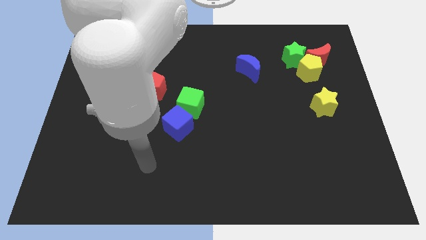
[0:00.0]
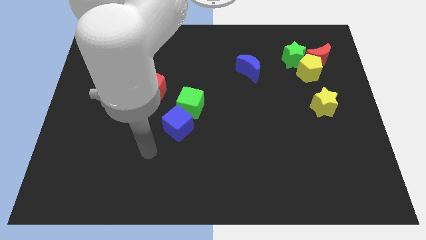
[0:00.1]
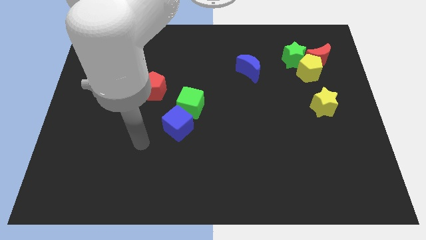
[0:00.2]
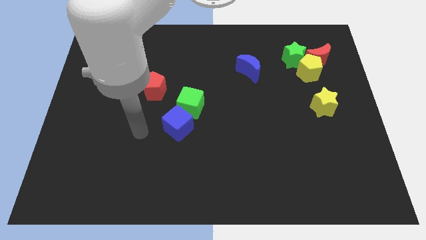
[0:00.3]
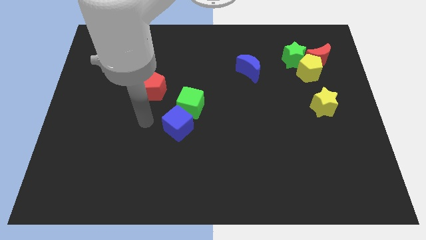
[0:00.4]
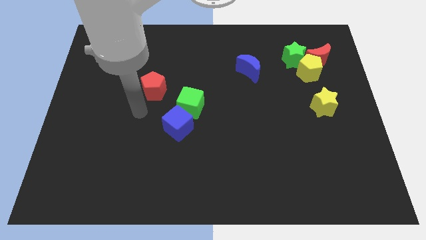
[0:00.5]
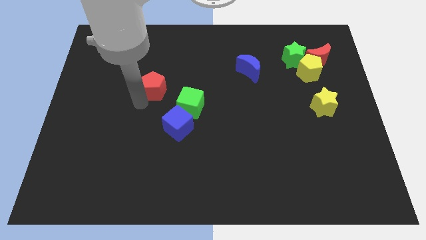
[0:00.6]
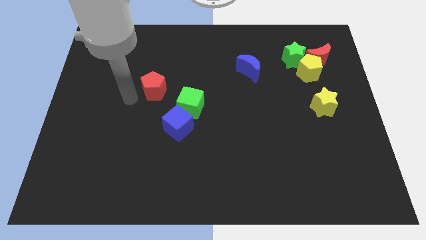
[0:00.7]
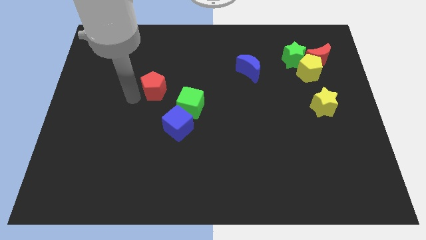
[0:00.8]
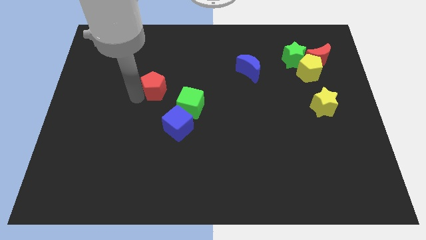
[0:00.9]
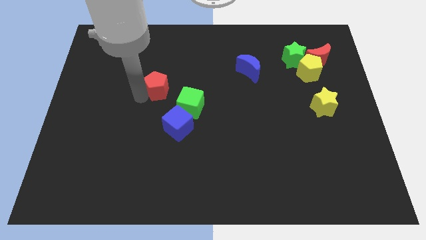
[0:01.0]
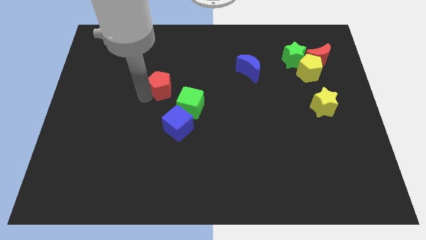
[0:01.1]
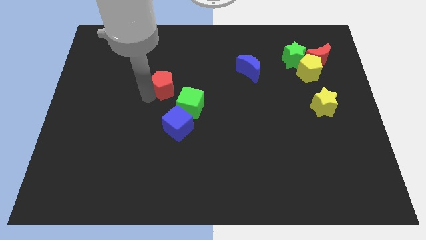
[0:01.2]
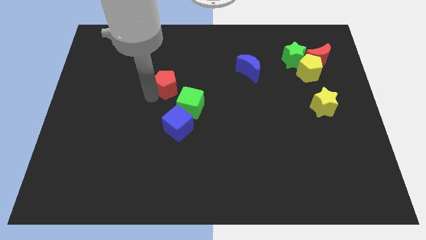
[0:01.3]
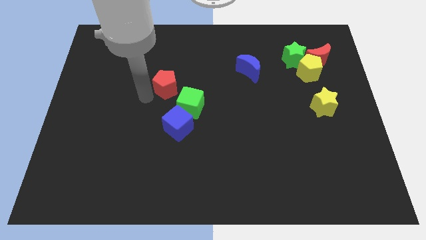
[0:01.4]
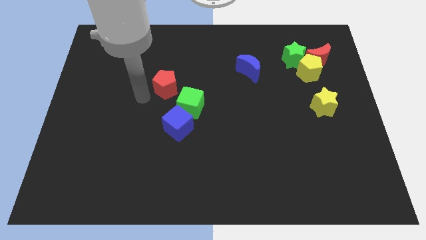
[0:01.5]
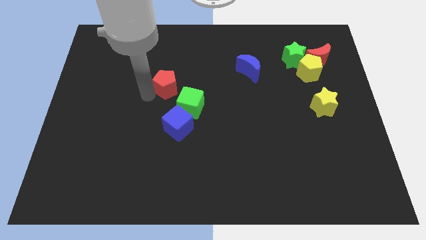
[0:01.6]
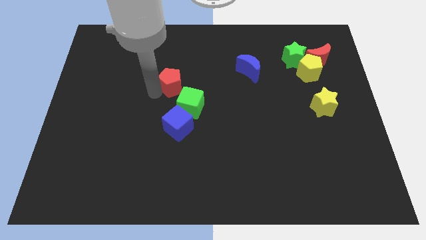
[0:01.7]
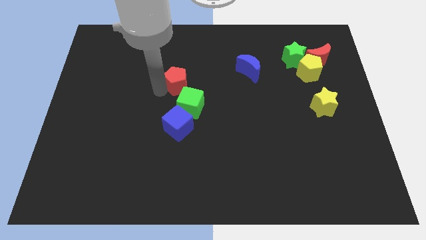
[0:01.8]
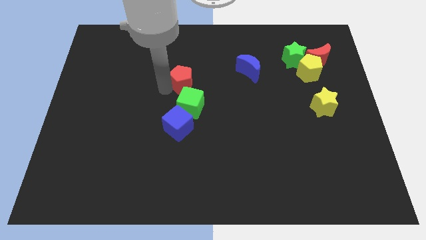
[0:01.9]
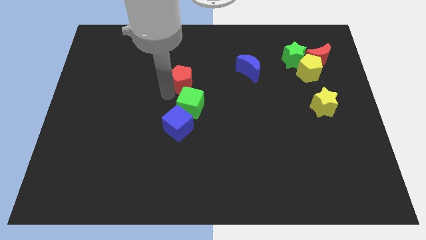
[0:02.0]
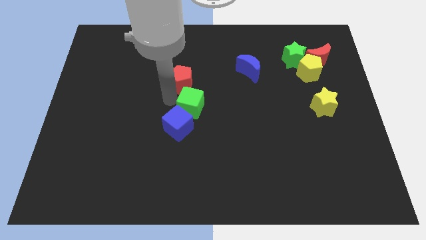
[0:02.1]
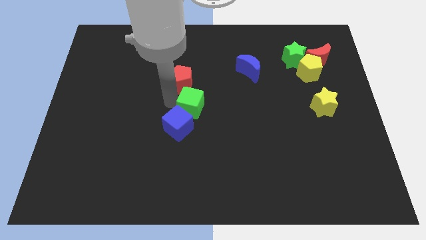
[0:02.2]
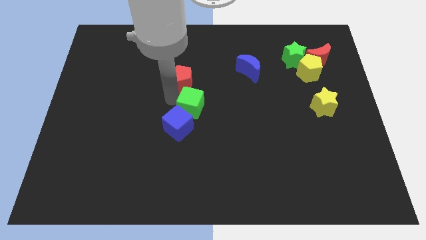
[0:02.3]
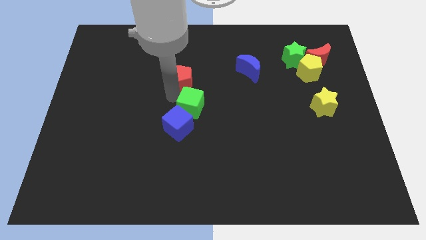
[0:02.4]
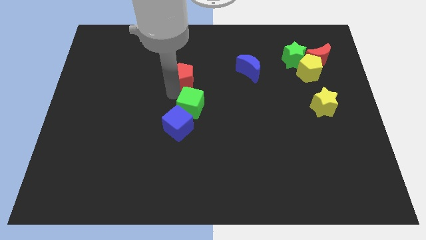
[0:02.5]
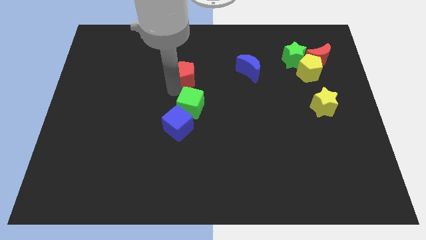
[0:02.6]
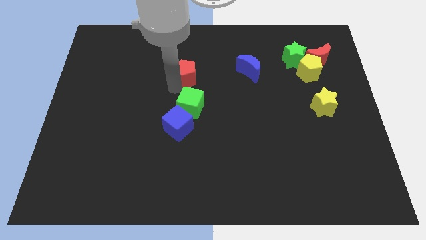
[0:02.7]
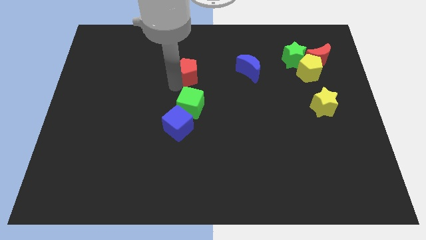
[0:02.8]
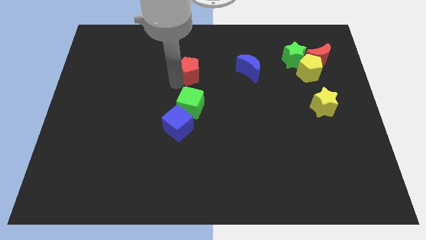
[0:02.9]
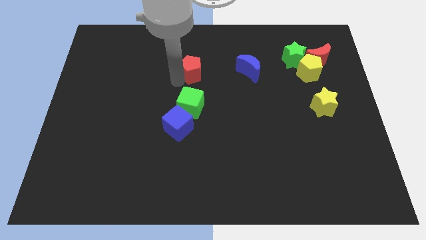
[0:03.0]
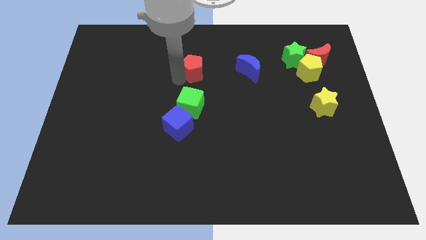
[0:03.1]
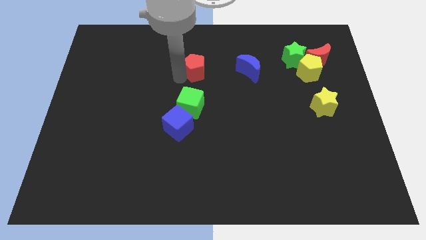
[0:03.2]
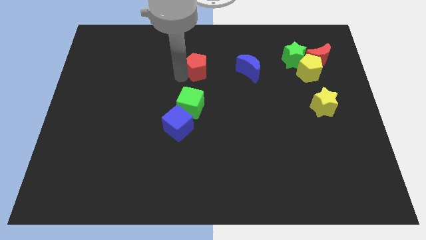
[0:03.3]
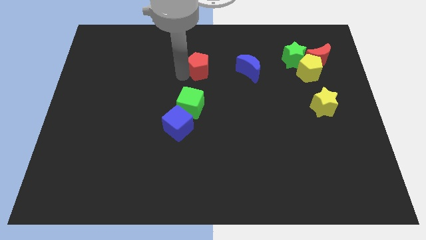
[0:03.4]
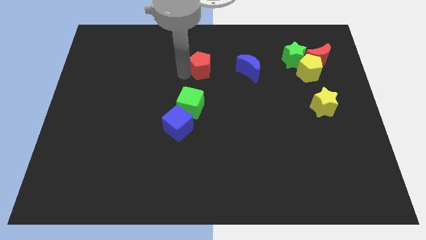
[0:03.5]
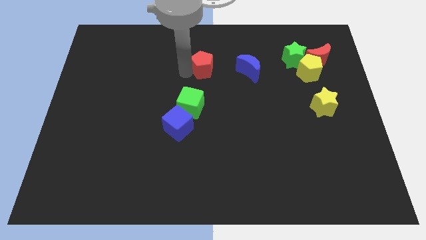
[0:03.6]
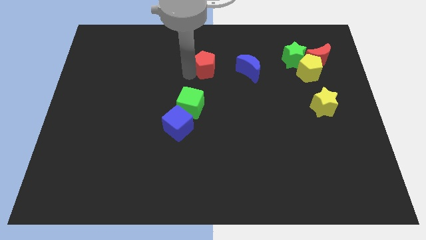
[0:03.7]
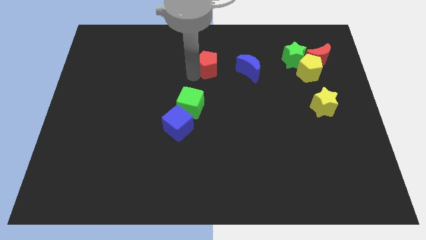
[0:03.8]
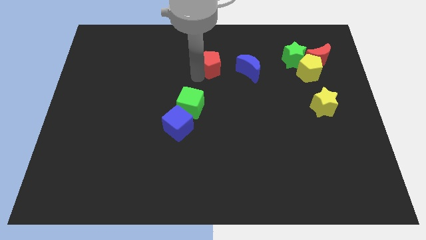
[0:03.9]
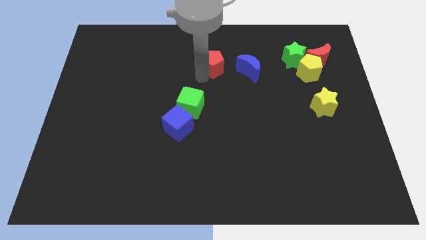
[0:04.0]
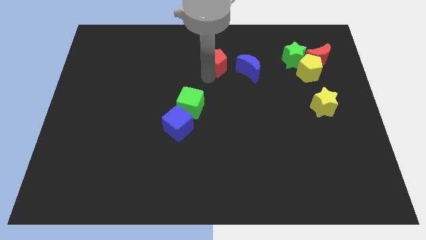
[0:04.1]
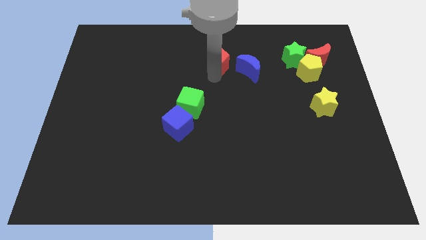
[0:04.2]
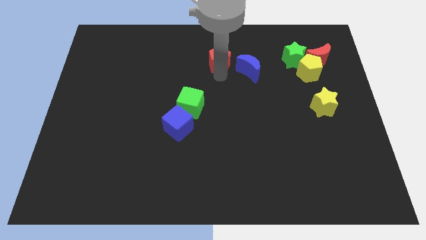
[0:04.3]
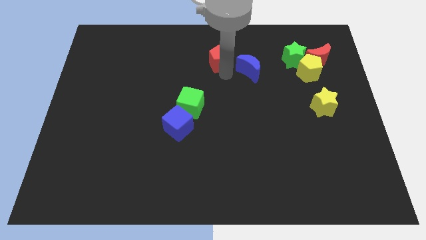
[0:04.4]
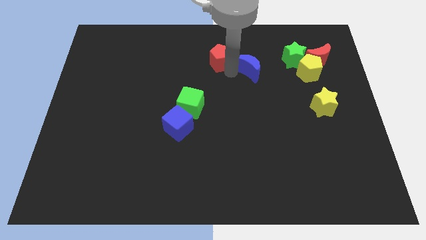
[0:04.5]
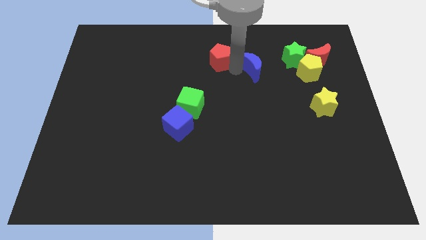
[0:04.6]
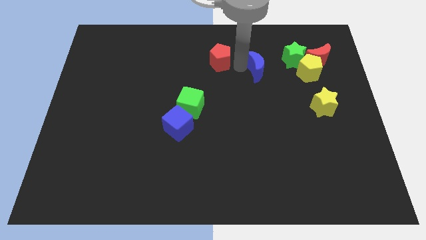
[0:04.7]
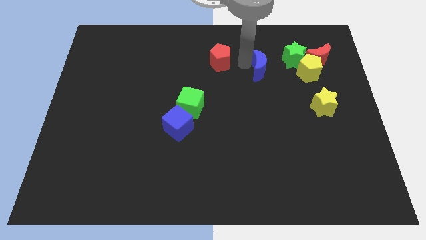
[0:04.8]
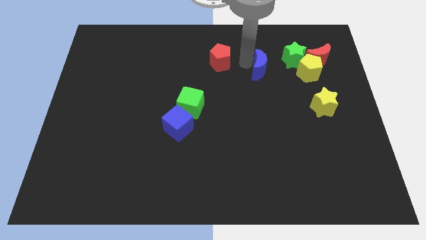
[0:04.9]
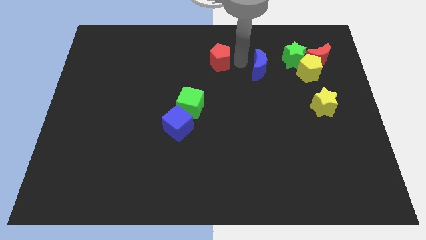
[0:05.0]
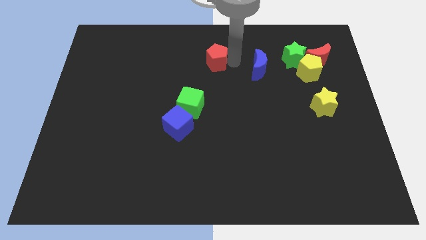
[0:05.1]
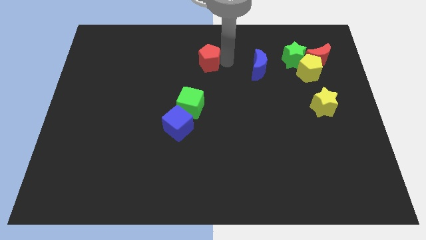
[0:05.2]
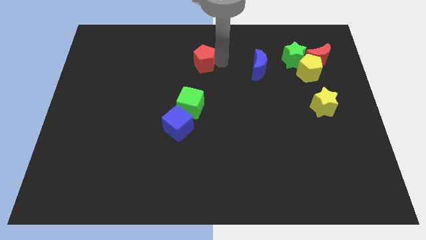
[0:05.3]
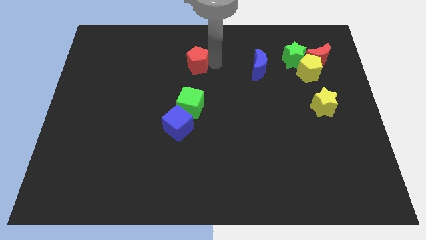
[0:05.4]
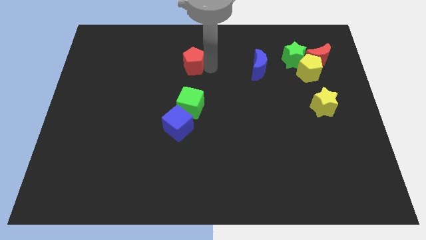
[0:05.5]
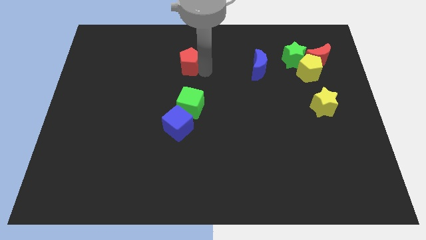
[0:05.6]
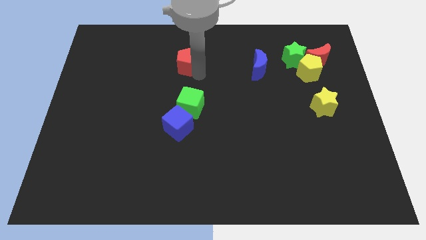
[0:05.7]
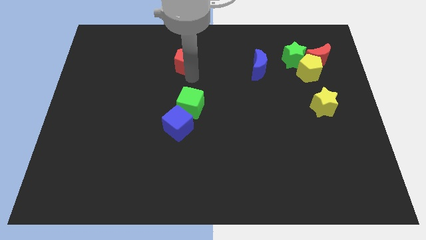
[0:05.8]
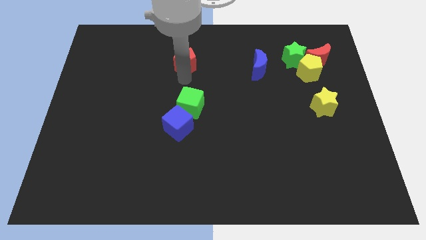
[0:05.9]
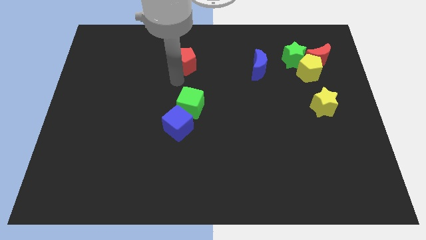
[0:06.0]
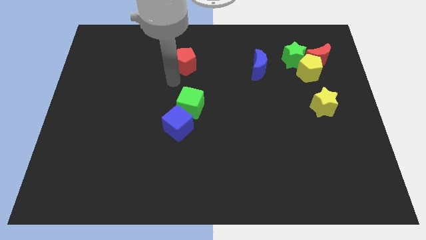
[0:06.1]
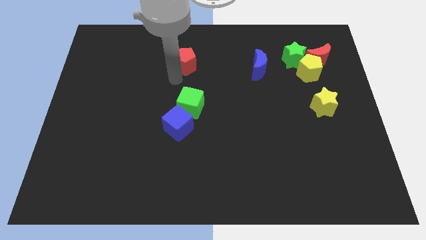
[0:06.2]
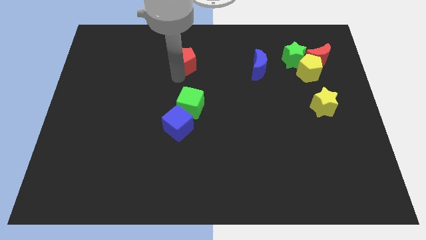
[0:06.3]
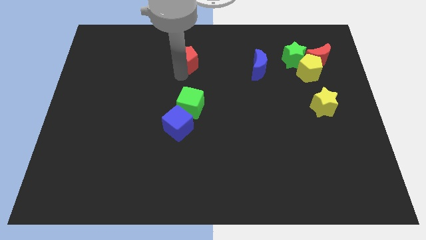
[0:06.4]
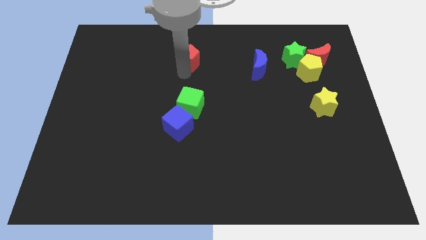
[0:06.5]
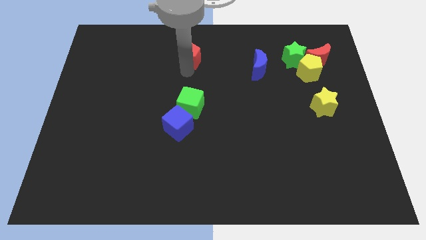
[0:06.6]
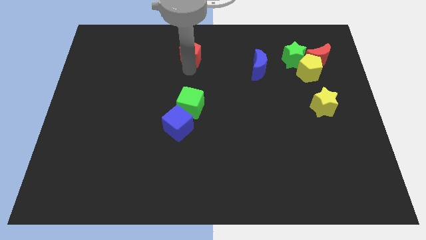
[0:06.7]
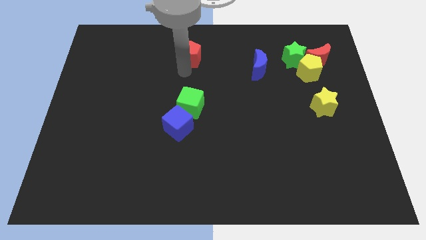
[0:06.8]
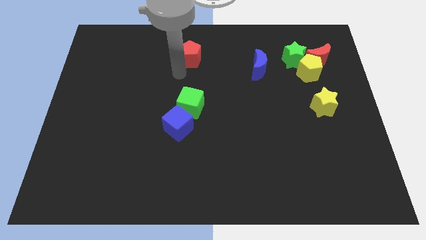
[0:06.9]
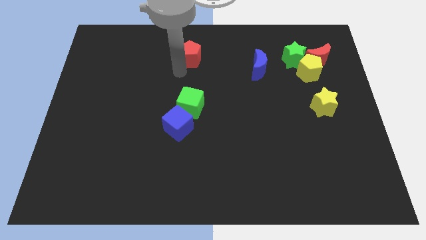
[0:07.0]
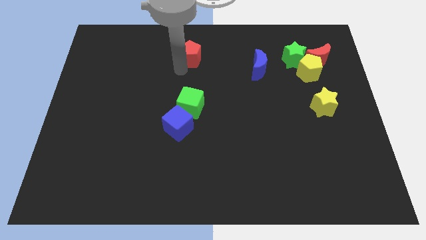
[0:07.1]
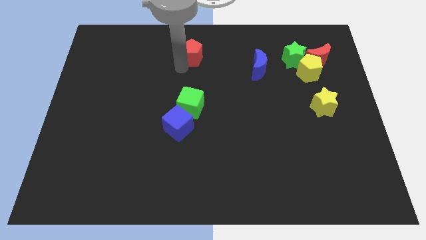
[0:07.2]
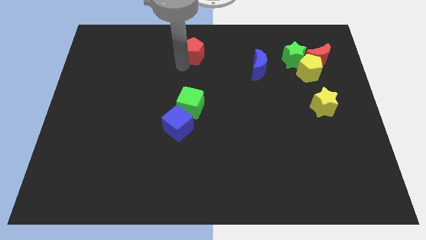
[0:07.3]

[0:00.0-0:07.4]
move the red pentagon to the towards your base
